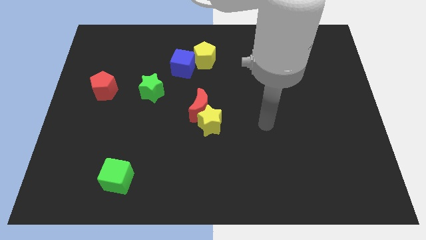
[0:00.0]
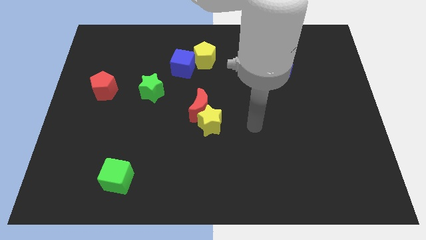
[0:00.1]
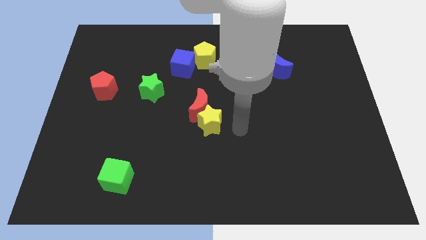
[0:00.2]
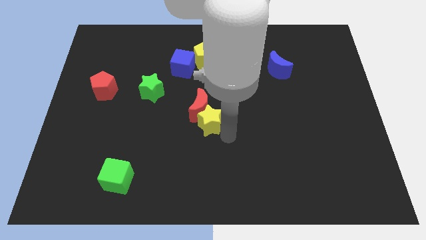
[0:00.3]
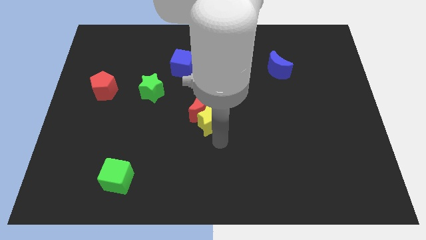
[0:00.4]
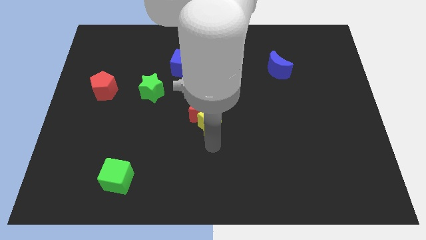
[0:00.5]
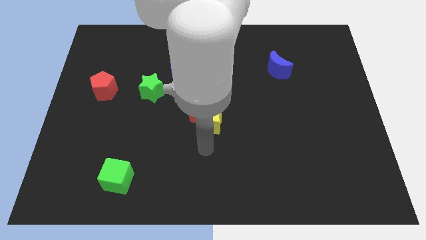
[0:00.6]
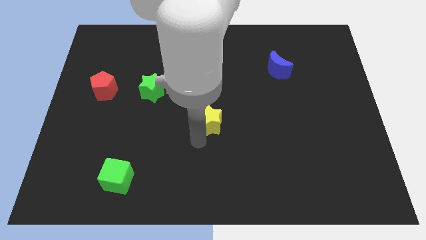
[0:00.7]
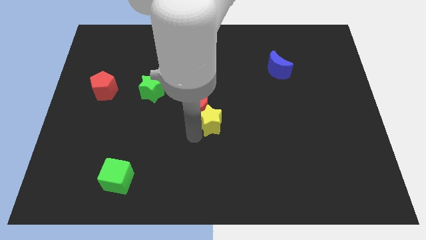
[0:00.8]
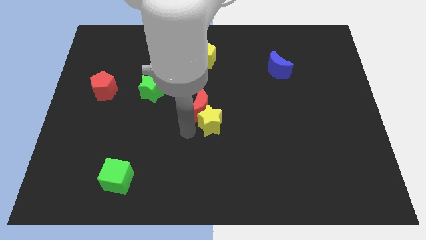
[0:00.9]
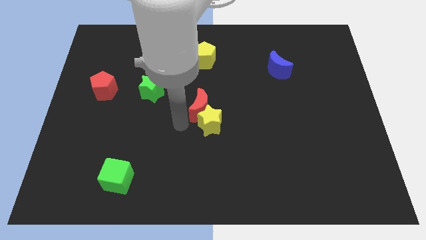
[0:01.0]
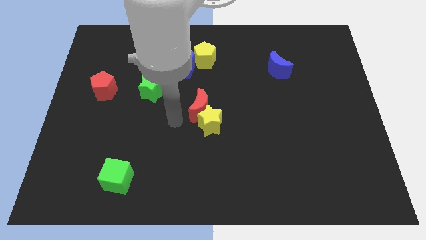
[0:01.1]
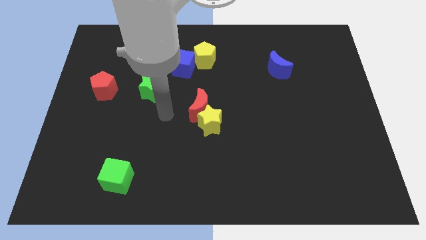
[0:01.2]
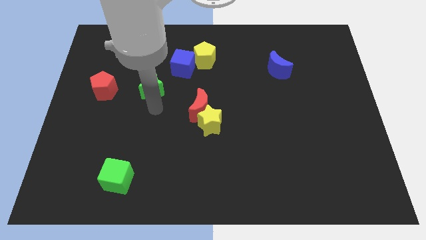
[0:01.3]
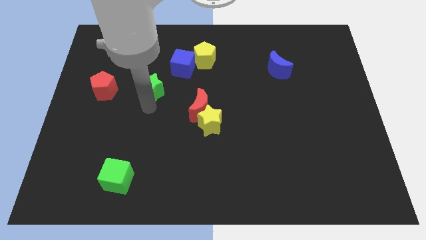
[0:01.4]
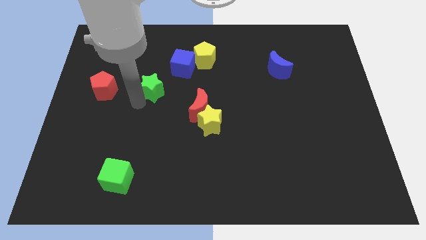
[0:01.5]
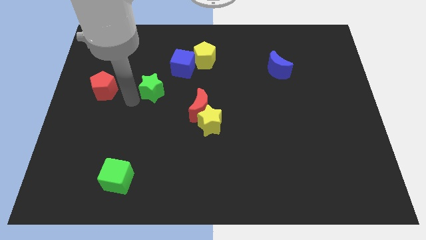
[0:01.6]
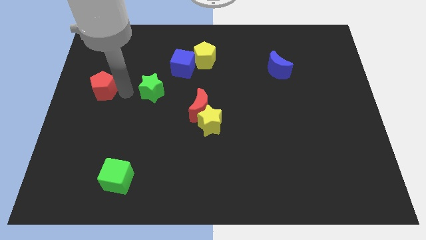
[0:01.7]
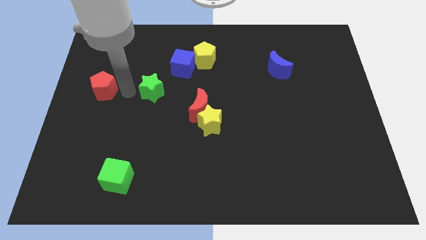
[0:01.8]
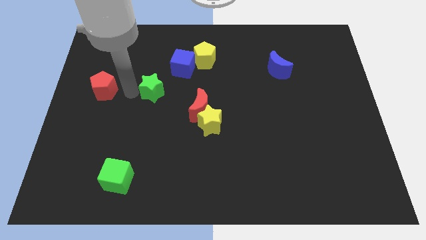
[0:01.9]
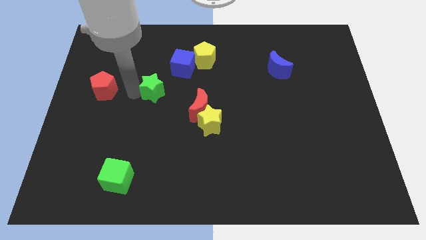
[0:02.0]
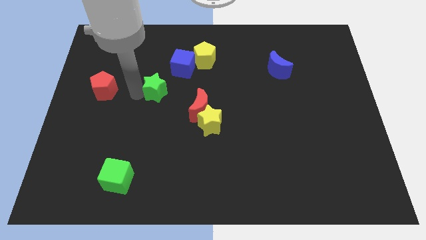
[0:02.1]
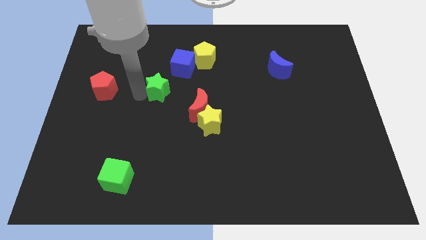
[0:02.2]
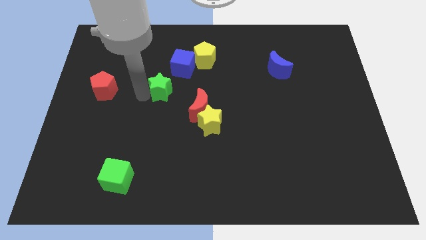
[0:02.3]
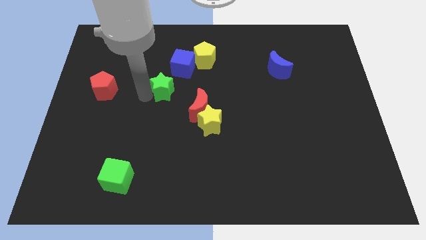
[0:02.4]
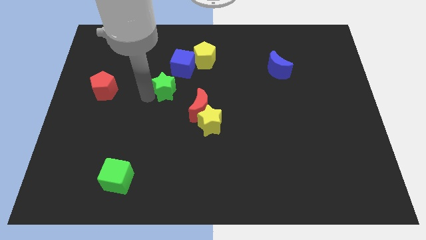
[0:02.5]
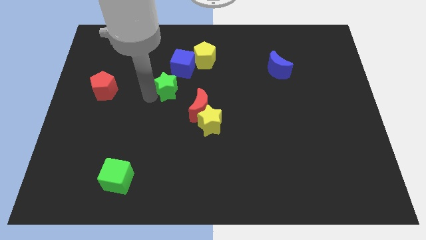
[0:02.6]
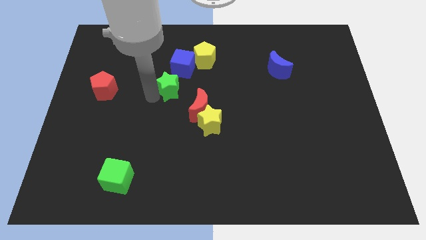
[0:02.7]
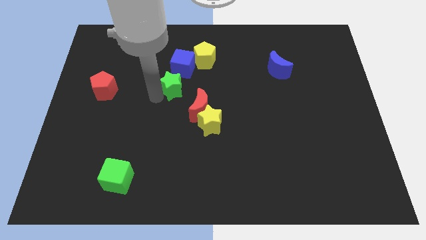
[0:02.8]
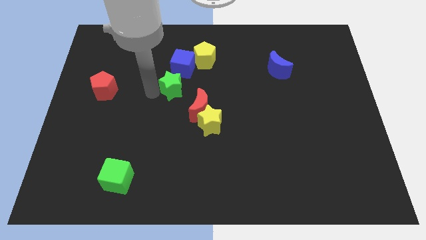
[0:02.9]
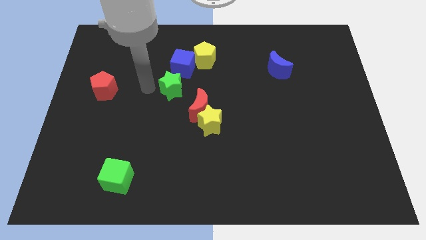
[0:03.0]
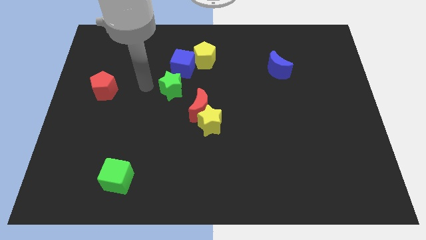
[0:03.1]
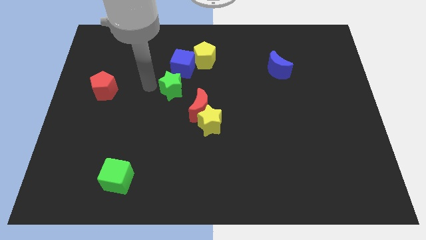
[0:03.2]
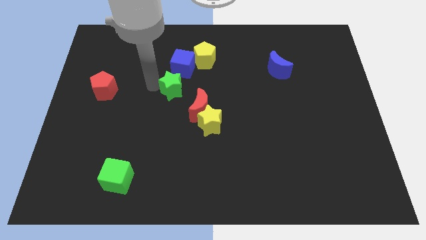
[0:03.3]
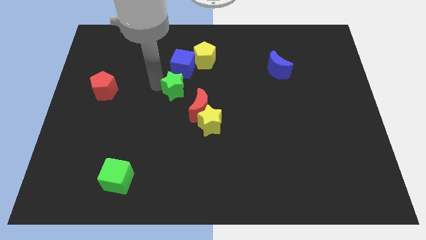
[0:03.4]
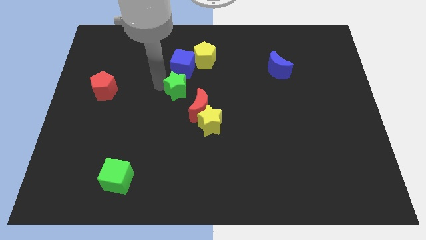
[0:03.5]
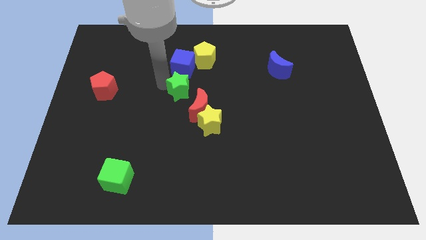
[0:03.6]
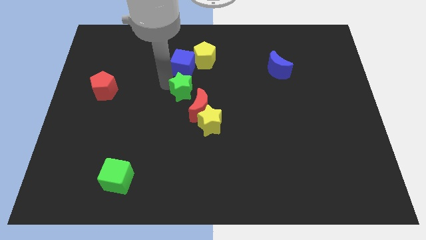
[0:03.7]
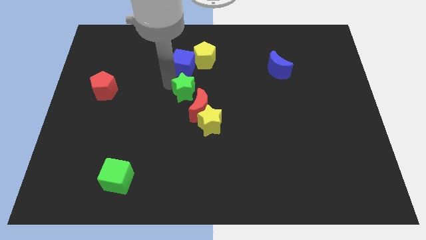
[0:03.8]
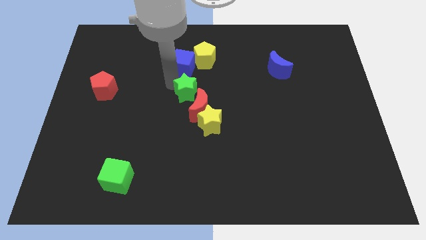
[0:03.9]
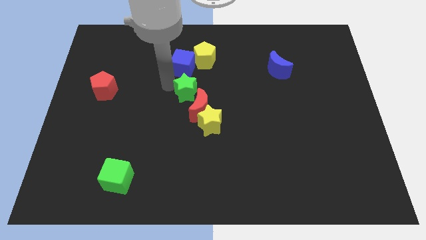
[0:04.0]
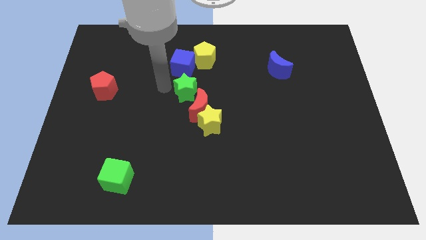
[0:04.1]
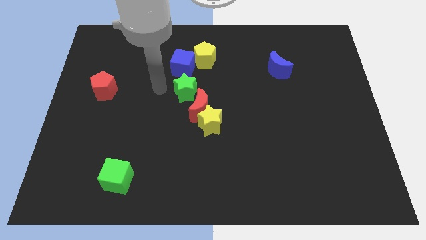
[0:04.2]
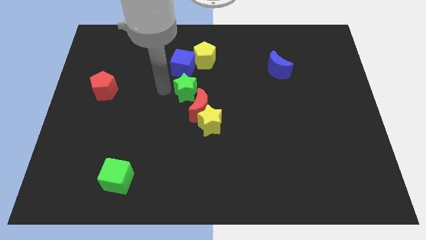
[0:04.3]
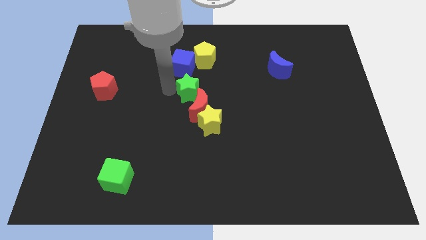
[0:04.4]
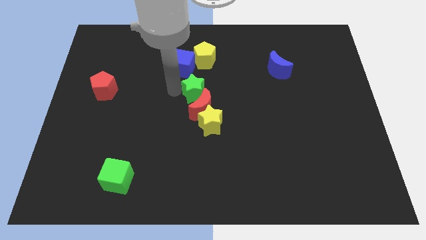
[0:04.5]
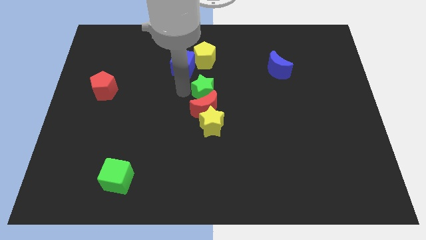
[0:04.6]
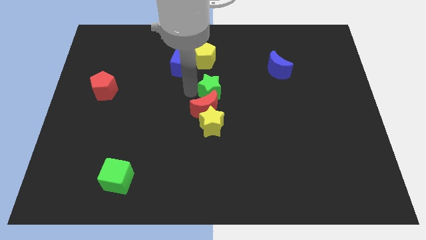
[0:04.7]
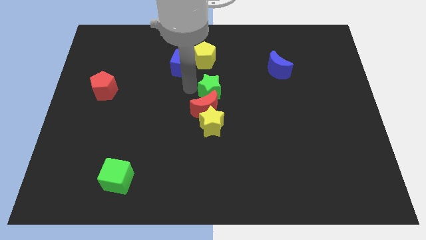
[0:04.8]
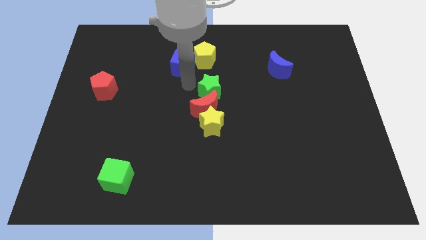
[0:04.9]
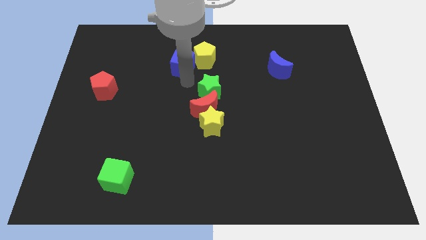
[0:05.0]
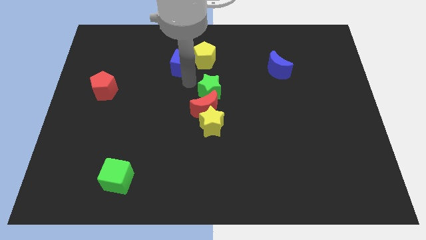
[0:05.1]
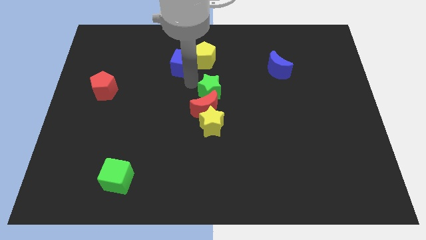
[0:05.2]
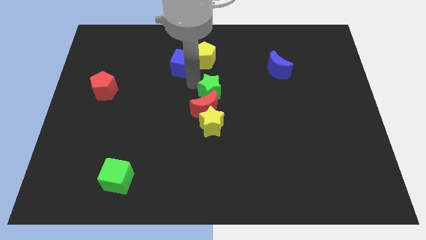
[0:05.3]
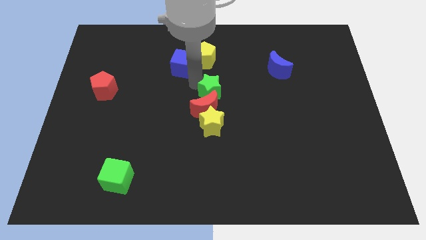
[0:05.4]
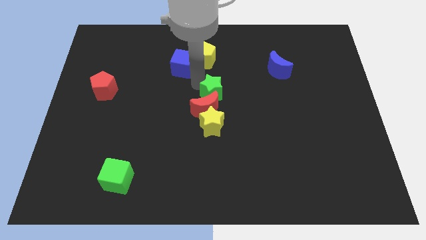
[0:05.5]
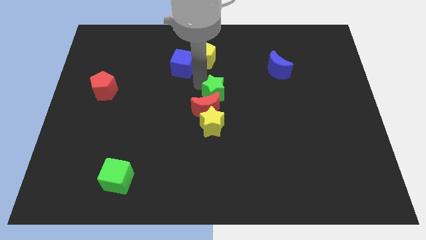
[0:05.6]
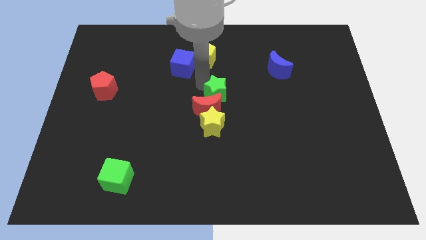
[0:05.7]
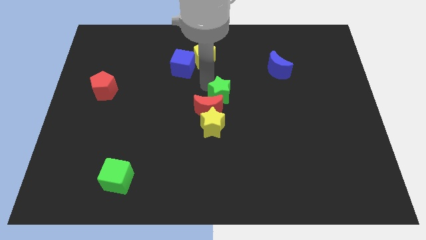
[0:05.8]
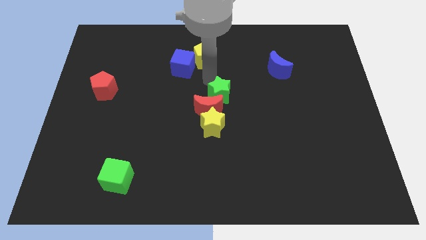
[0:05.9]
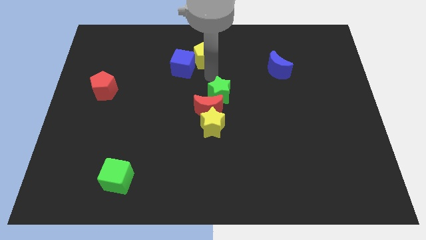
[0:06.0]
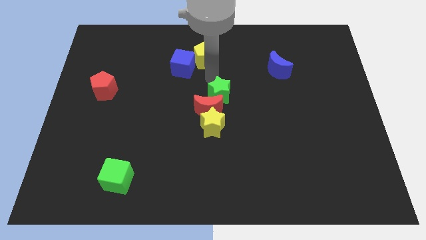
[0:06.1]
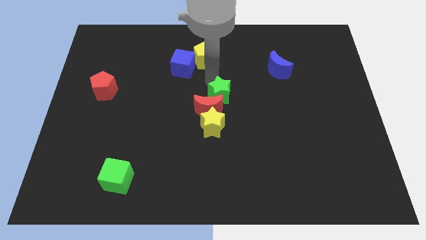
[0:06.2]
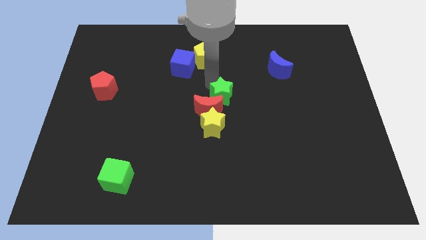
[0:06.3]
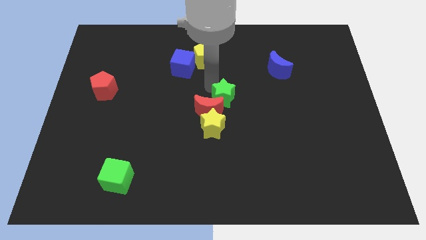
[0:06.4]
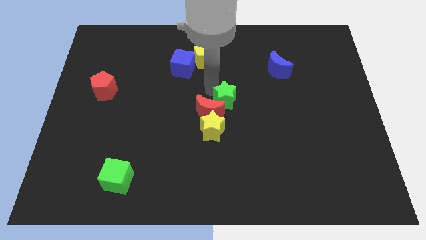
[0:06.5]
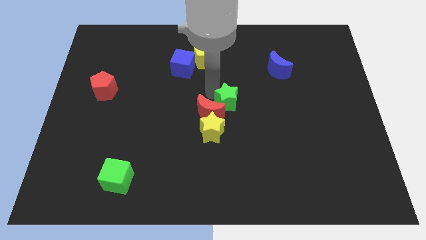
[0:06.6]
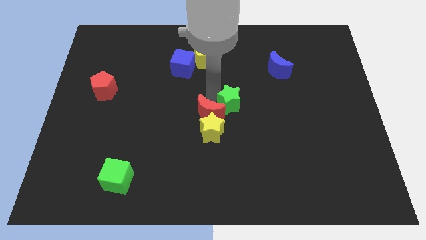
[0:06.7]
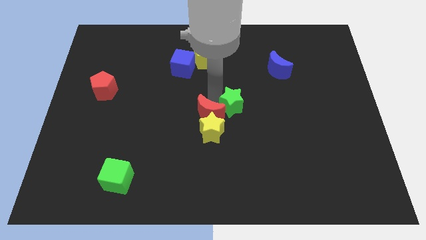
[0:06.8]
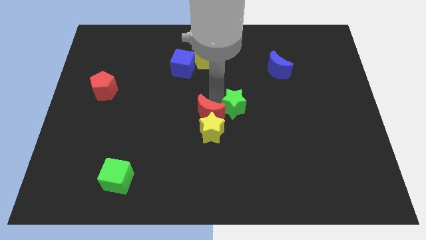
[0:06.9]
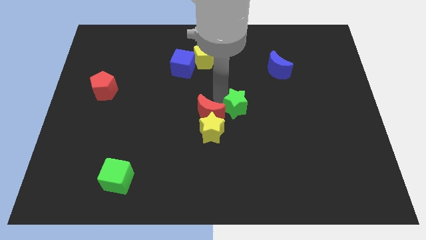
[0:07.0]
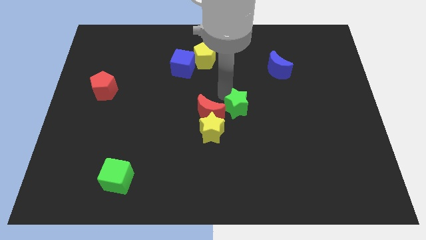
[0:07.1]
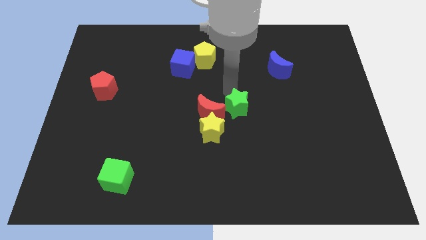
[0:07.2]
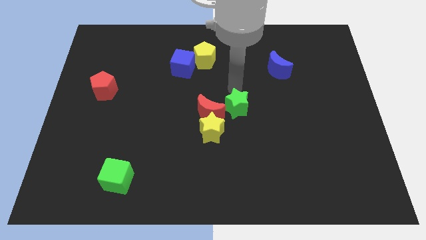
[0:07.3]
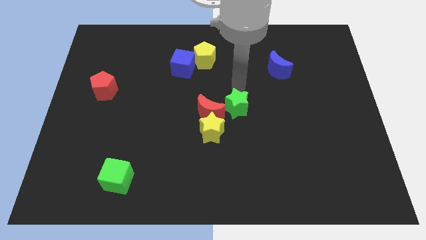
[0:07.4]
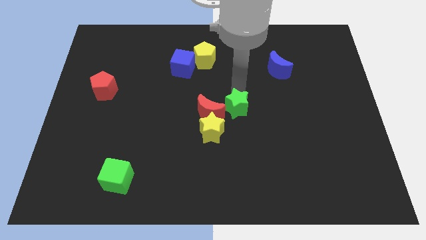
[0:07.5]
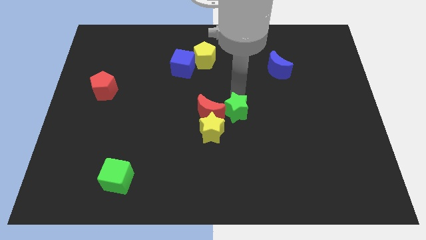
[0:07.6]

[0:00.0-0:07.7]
push the green star to the bottom right side of the red moon
